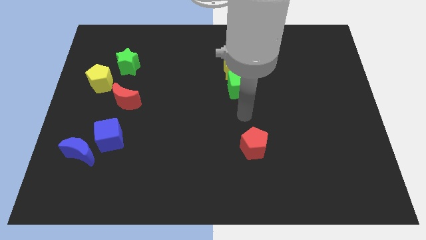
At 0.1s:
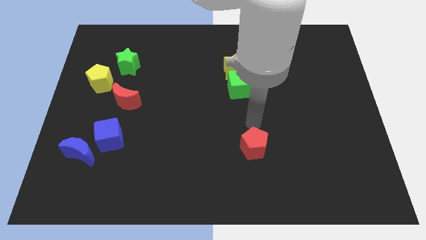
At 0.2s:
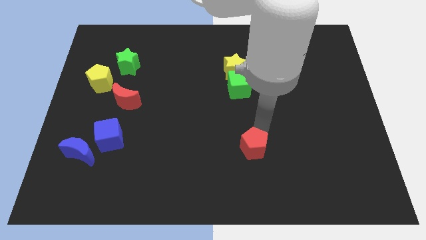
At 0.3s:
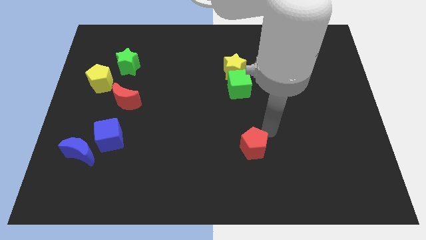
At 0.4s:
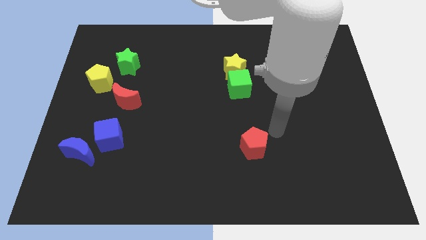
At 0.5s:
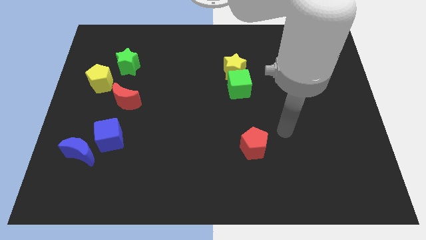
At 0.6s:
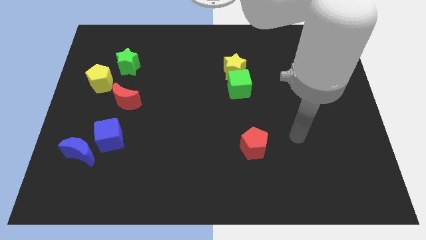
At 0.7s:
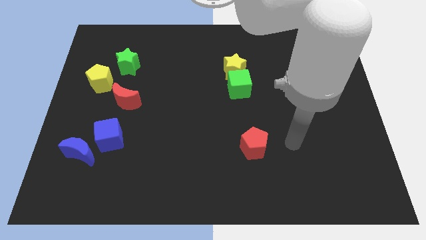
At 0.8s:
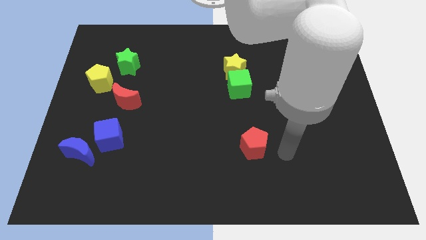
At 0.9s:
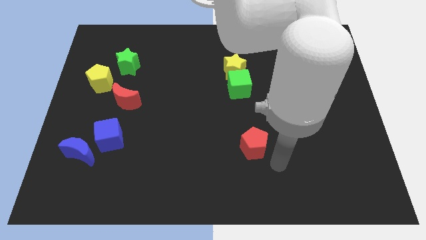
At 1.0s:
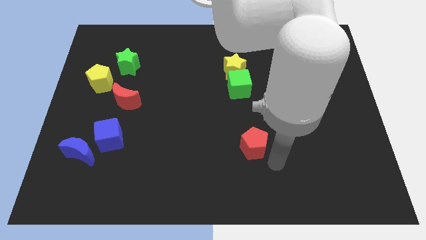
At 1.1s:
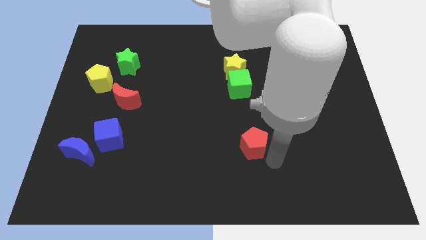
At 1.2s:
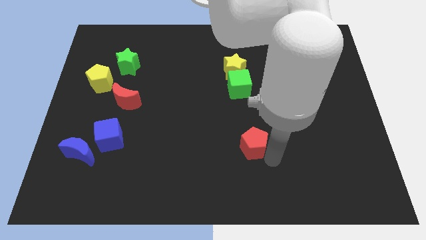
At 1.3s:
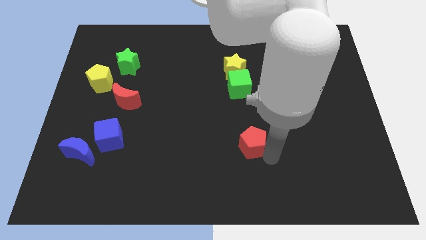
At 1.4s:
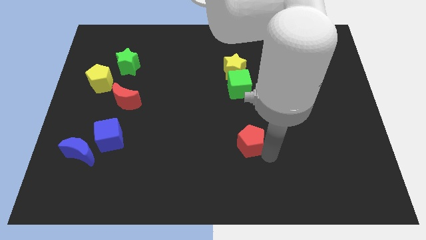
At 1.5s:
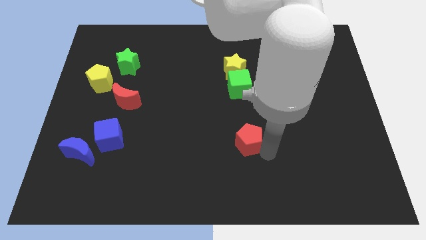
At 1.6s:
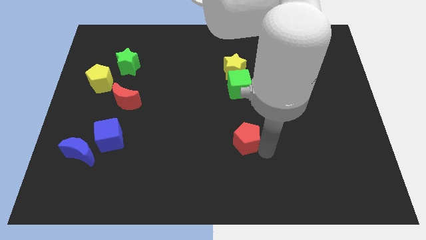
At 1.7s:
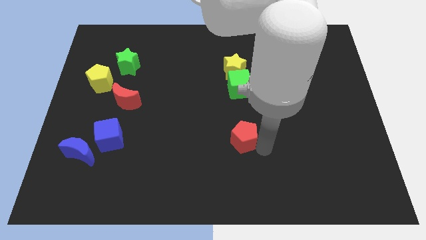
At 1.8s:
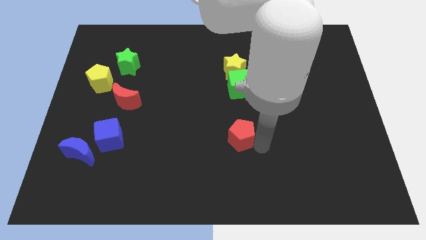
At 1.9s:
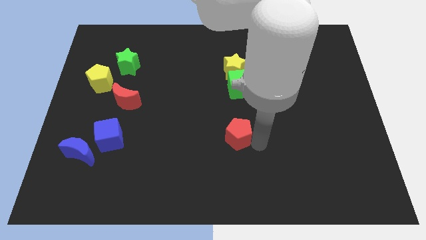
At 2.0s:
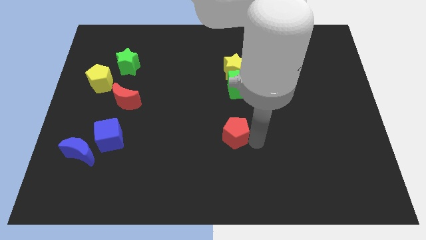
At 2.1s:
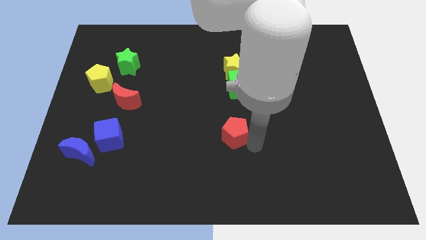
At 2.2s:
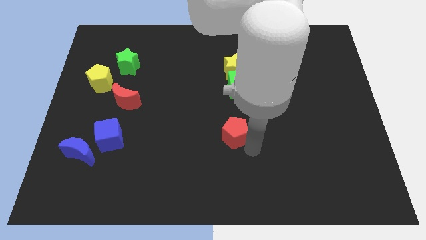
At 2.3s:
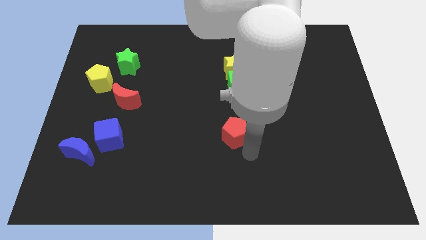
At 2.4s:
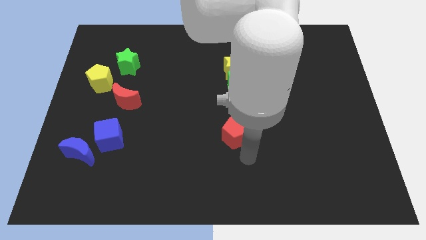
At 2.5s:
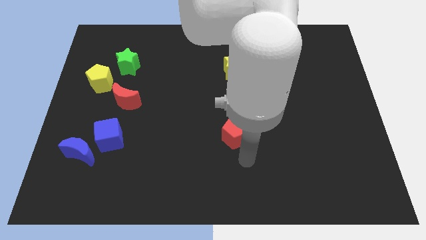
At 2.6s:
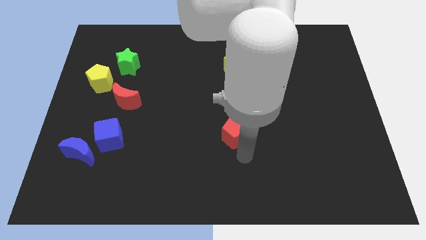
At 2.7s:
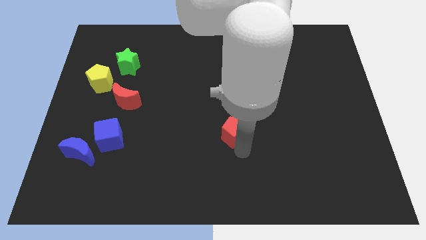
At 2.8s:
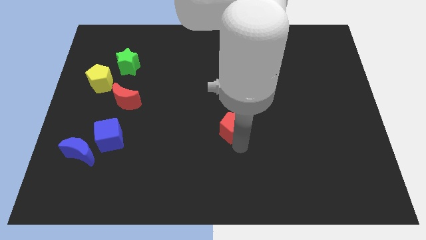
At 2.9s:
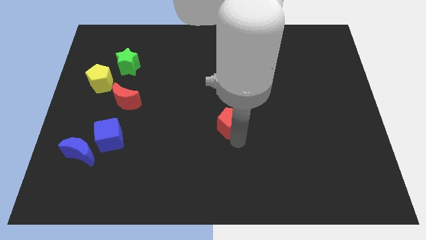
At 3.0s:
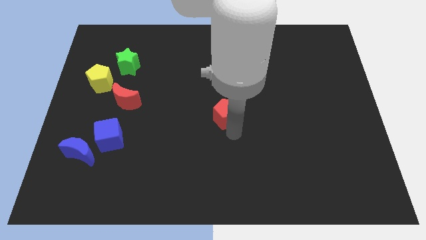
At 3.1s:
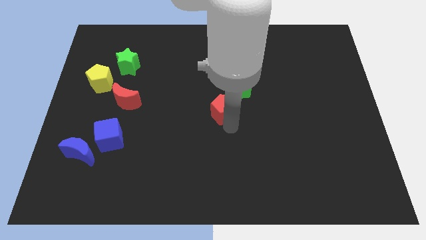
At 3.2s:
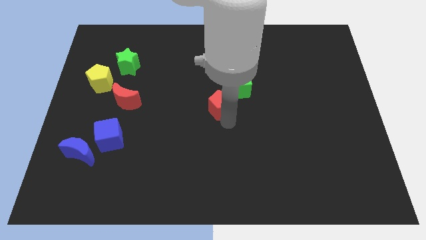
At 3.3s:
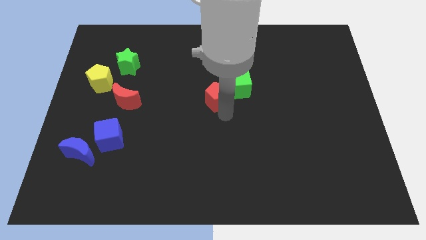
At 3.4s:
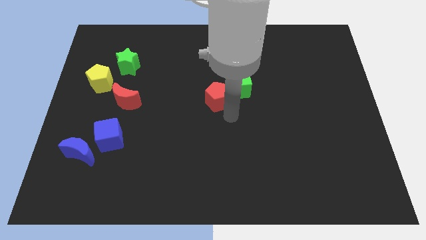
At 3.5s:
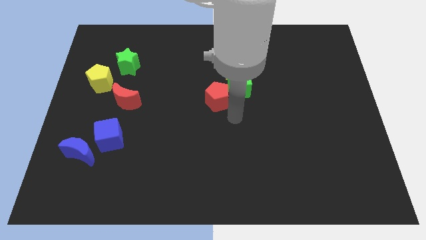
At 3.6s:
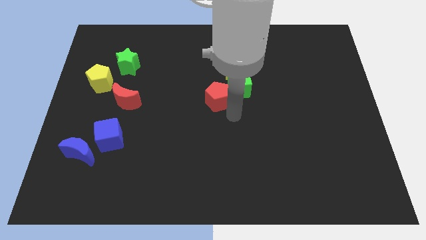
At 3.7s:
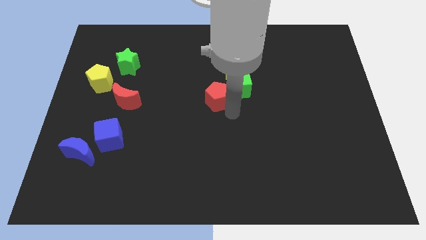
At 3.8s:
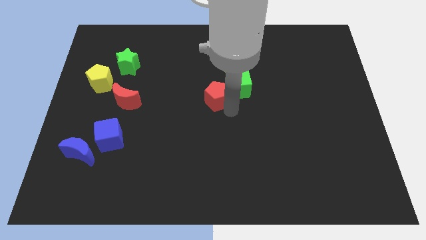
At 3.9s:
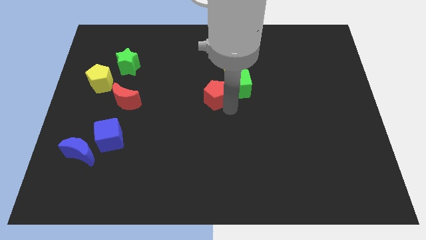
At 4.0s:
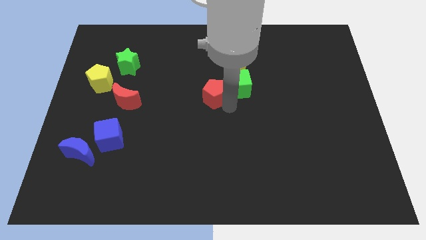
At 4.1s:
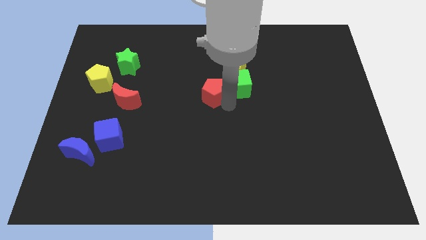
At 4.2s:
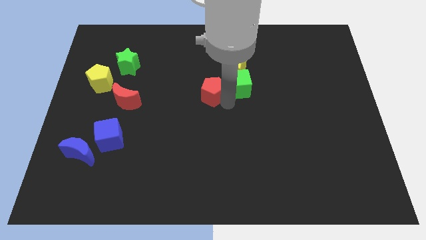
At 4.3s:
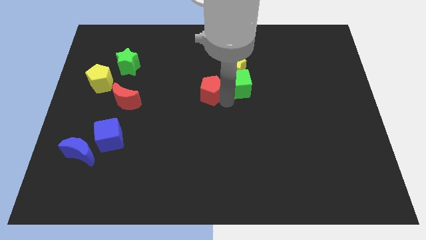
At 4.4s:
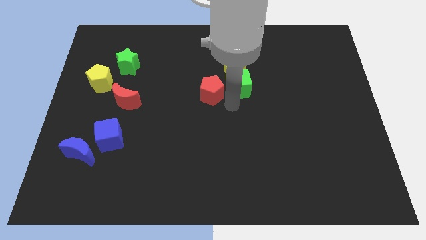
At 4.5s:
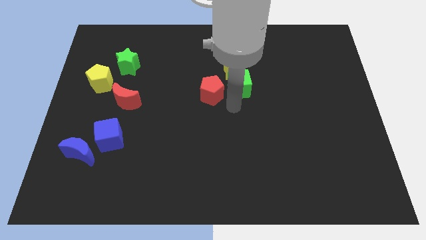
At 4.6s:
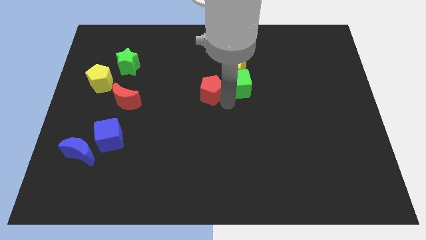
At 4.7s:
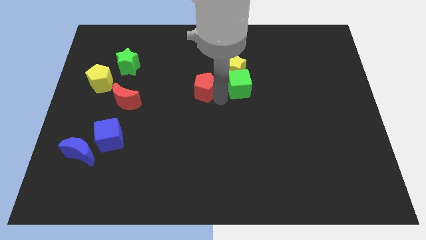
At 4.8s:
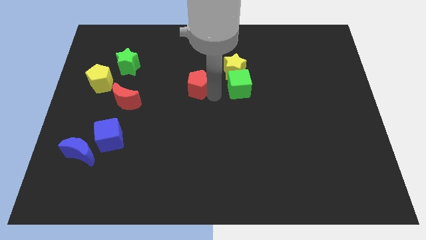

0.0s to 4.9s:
push the red pentagon upwards and to the left diagonally

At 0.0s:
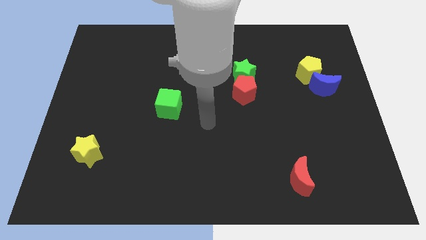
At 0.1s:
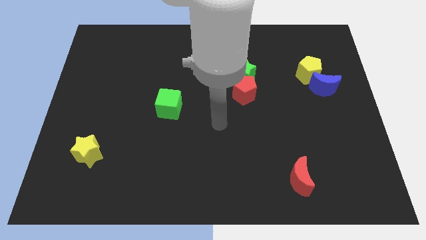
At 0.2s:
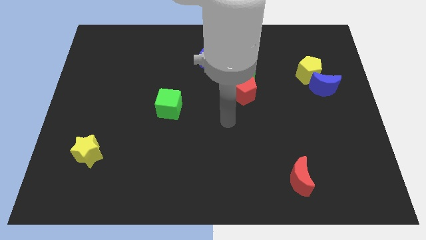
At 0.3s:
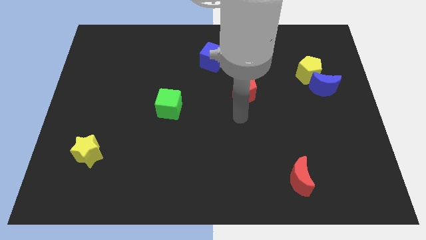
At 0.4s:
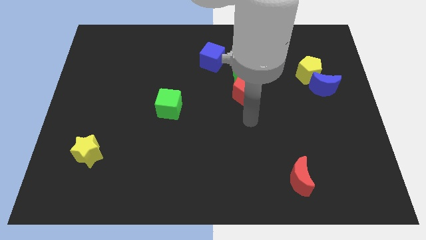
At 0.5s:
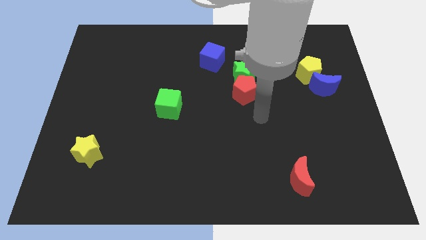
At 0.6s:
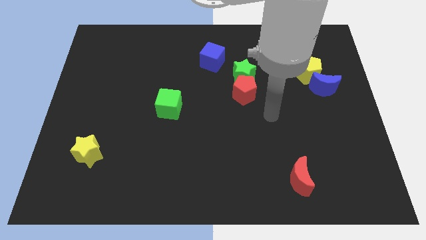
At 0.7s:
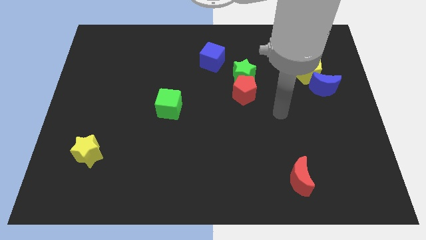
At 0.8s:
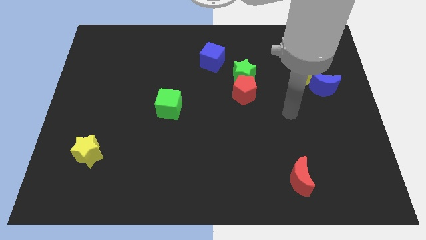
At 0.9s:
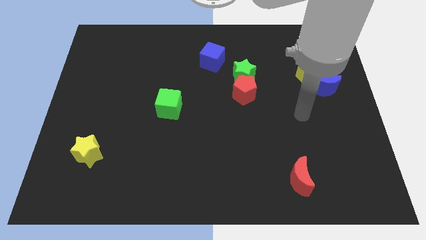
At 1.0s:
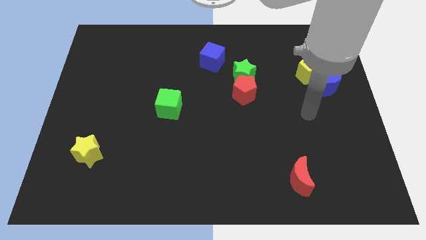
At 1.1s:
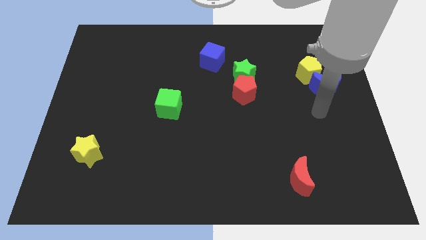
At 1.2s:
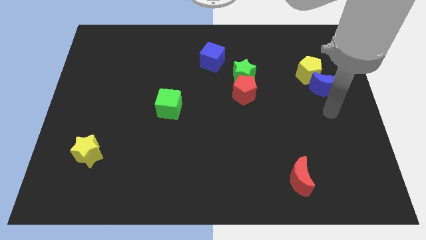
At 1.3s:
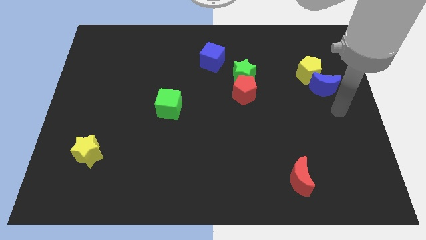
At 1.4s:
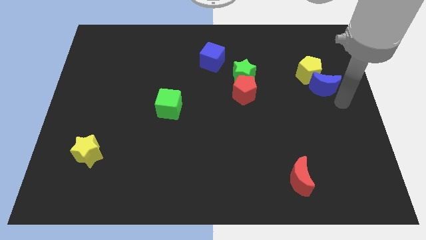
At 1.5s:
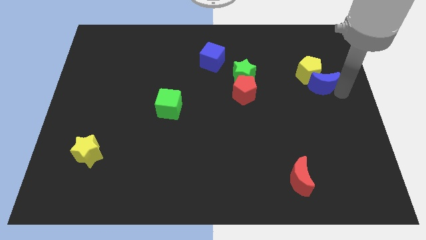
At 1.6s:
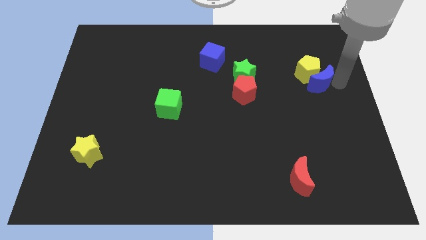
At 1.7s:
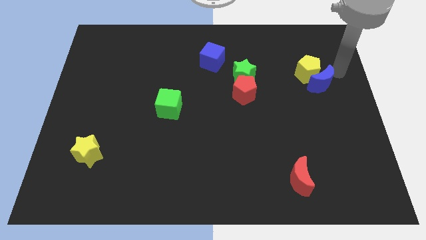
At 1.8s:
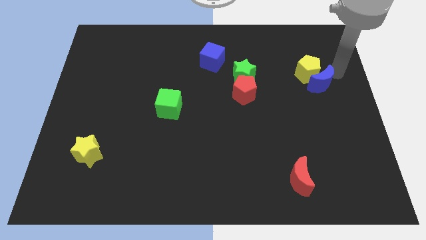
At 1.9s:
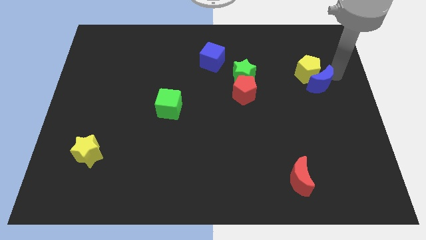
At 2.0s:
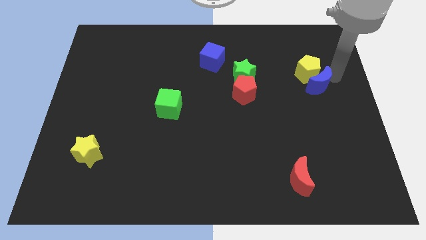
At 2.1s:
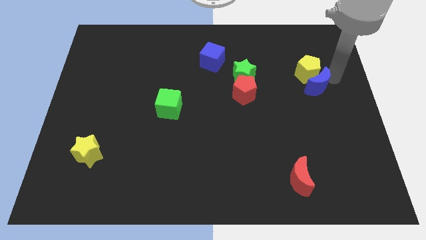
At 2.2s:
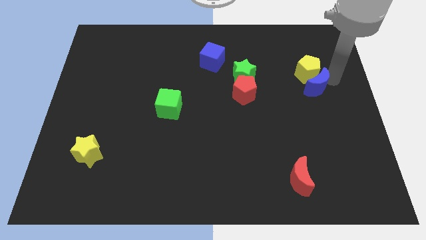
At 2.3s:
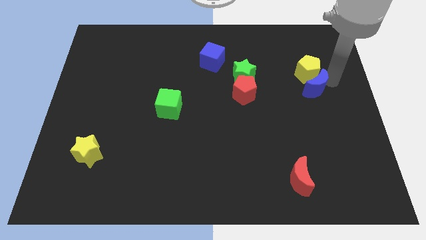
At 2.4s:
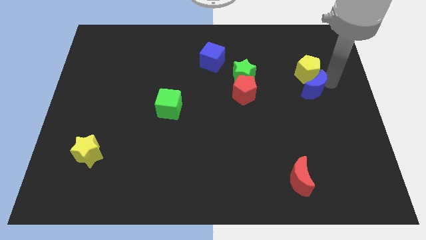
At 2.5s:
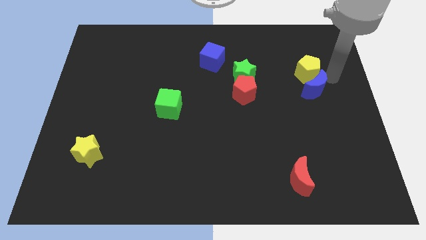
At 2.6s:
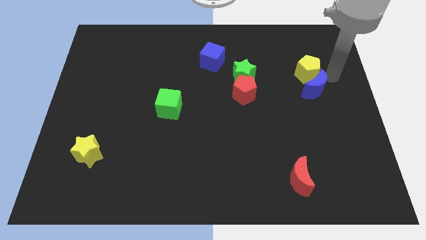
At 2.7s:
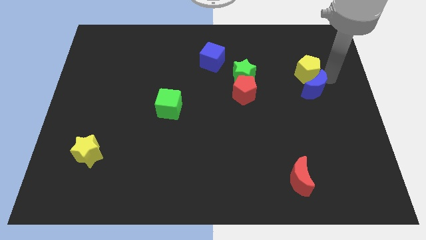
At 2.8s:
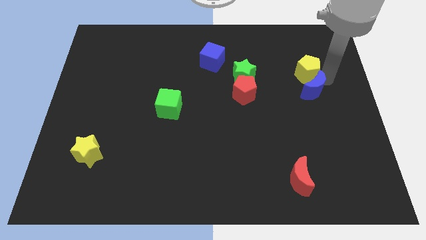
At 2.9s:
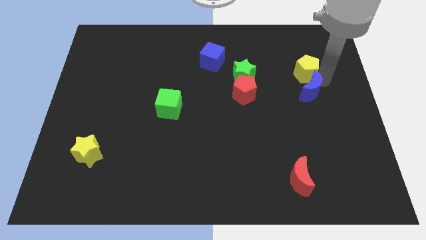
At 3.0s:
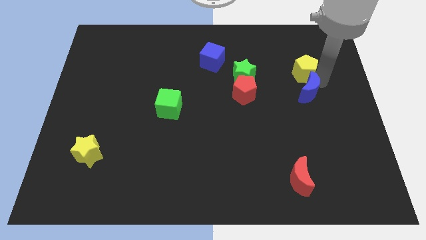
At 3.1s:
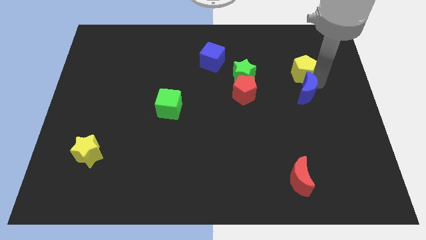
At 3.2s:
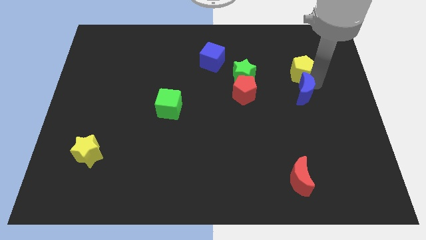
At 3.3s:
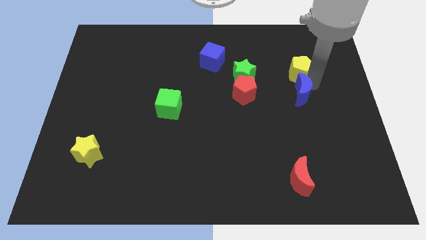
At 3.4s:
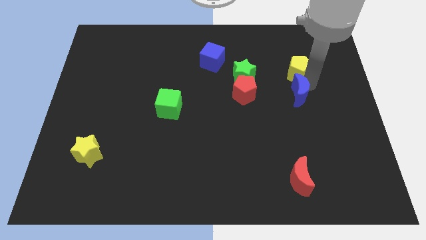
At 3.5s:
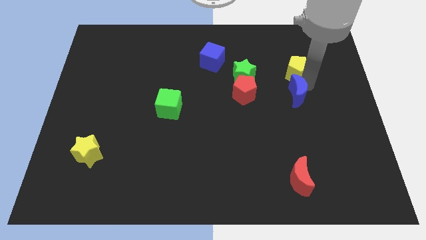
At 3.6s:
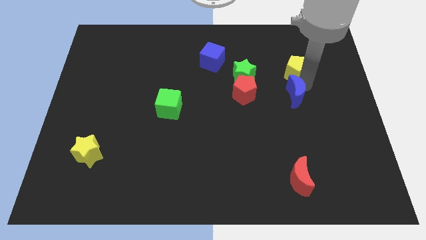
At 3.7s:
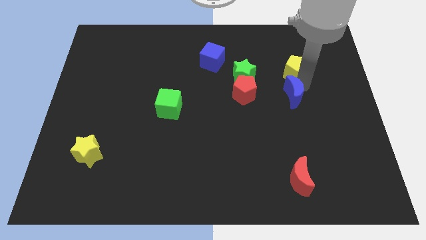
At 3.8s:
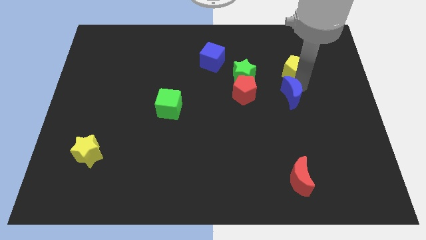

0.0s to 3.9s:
slightly move the blue moon diagonally down and left
